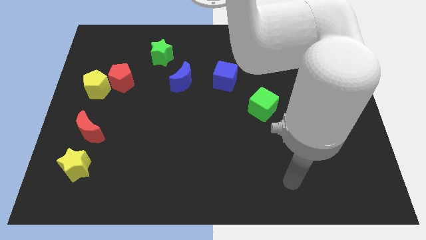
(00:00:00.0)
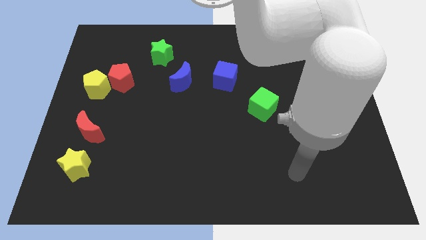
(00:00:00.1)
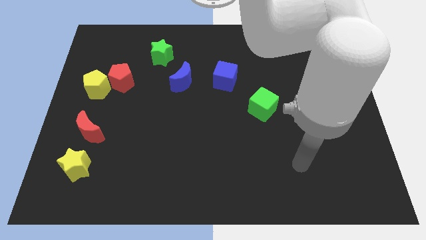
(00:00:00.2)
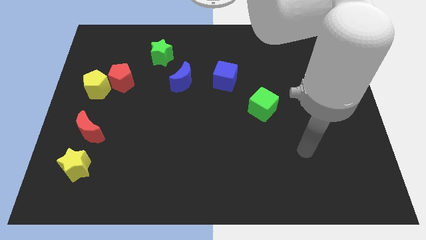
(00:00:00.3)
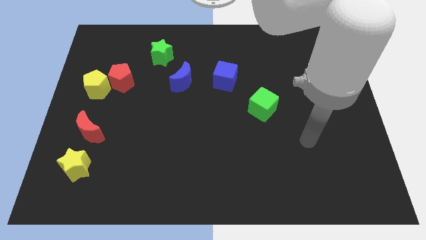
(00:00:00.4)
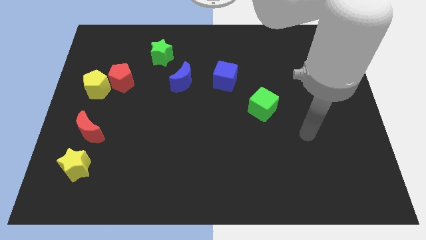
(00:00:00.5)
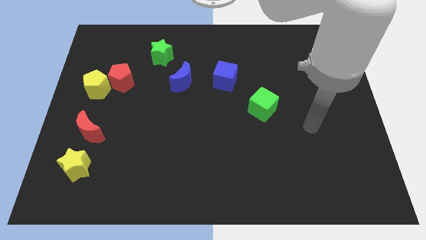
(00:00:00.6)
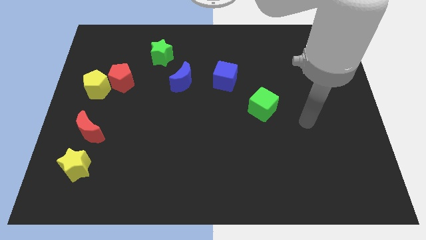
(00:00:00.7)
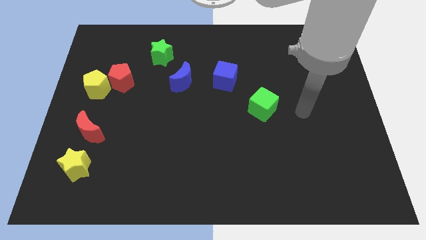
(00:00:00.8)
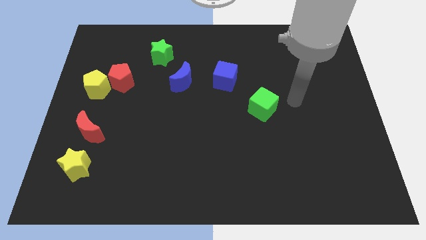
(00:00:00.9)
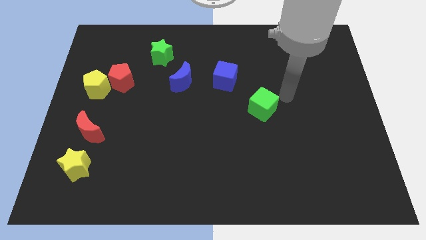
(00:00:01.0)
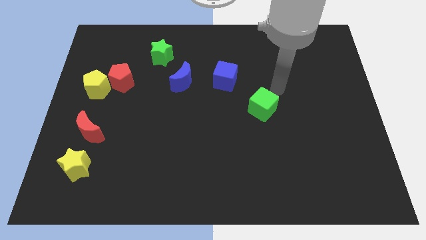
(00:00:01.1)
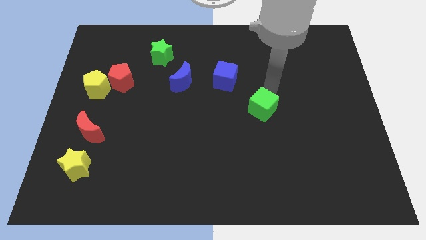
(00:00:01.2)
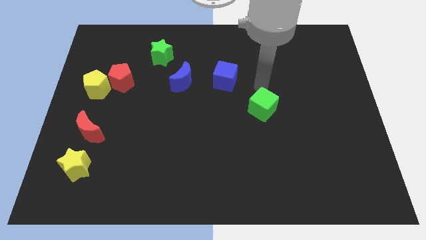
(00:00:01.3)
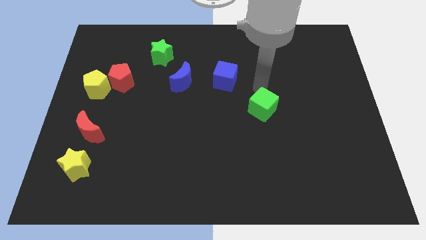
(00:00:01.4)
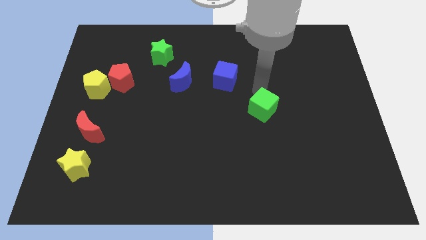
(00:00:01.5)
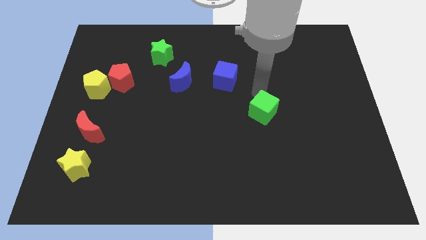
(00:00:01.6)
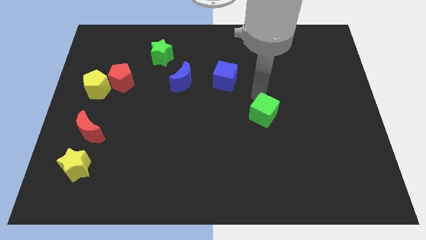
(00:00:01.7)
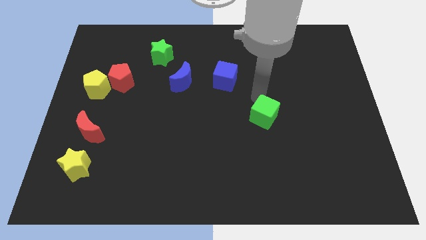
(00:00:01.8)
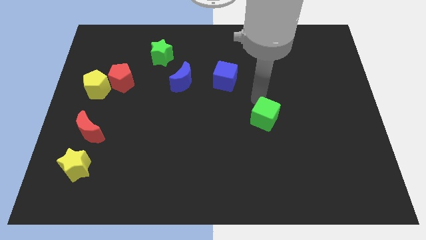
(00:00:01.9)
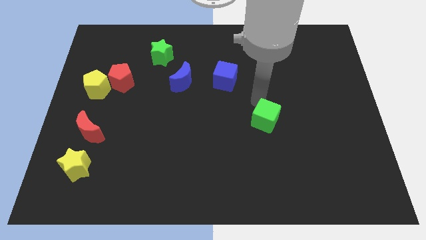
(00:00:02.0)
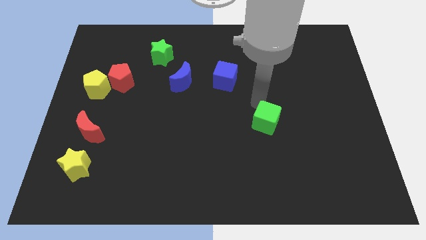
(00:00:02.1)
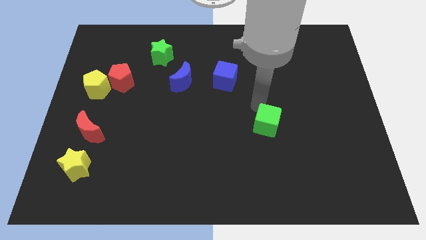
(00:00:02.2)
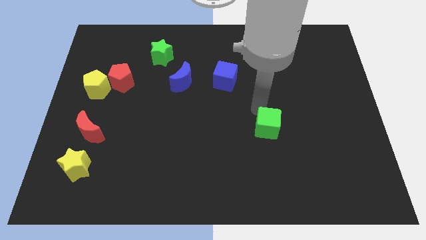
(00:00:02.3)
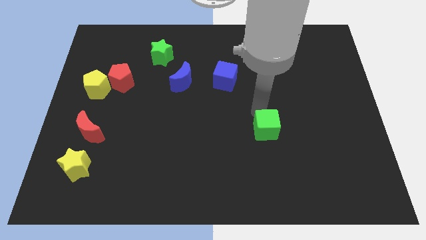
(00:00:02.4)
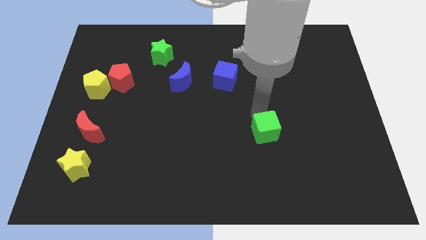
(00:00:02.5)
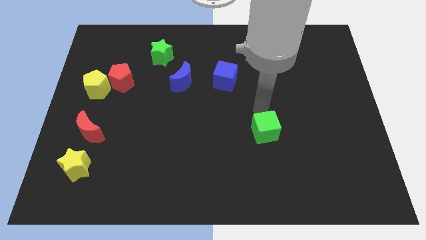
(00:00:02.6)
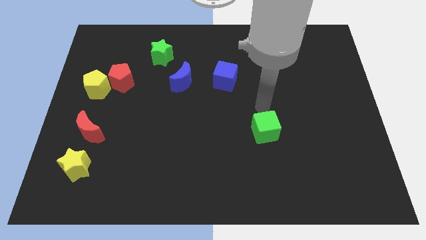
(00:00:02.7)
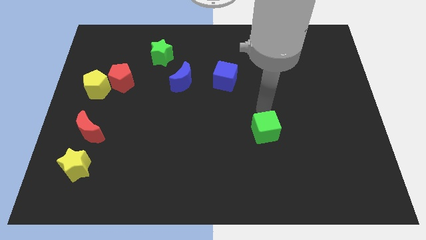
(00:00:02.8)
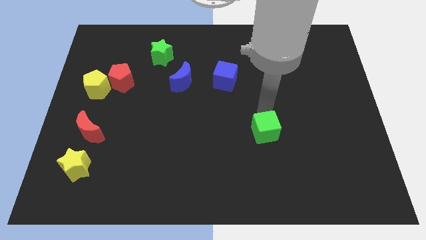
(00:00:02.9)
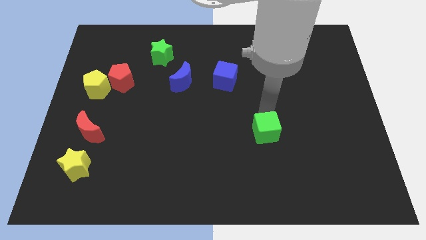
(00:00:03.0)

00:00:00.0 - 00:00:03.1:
slide the green cube a little downwards

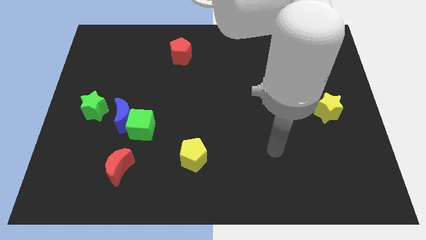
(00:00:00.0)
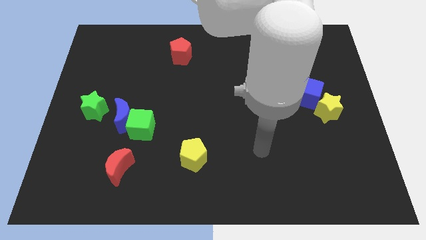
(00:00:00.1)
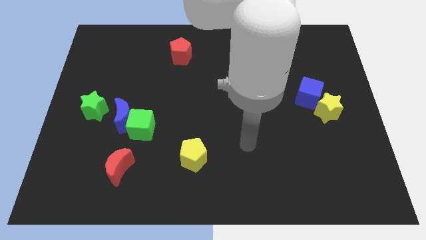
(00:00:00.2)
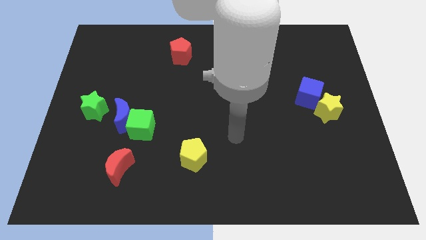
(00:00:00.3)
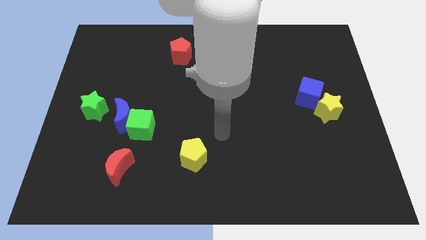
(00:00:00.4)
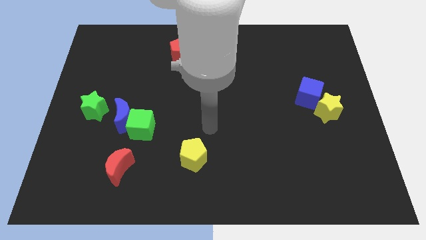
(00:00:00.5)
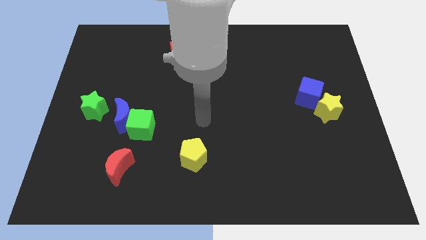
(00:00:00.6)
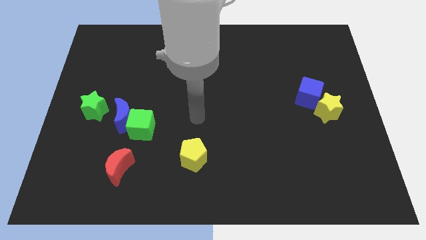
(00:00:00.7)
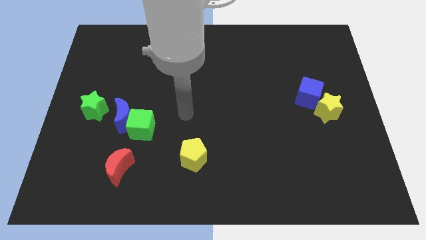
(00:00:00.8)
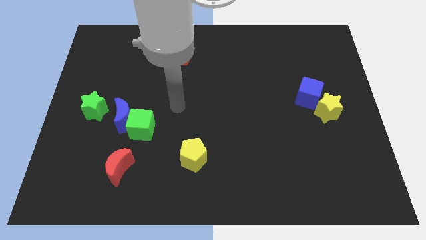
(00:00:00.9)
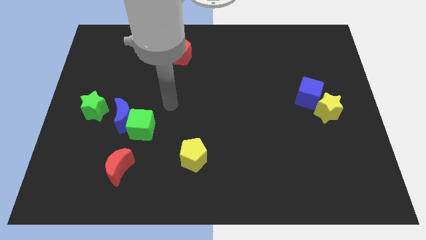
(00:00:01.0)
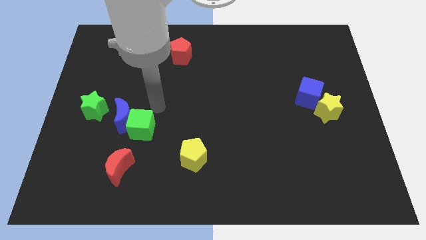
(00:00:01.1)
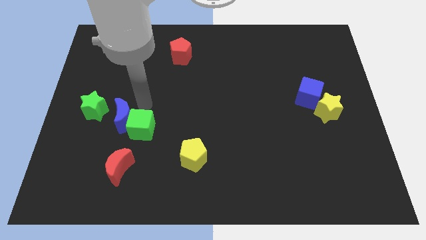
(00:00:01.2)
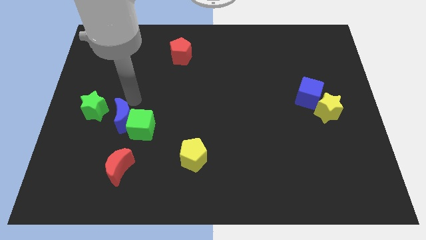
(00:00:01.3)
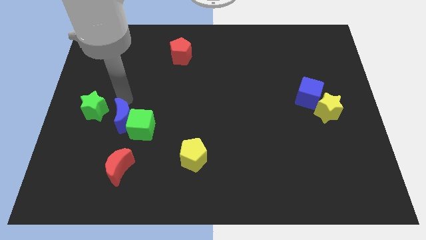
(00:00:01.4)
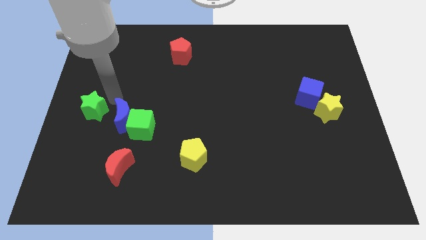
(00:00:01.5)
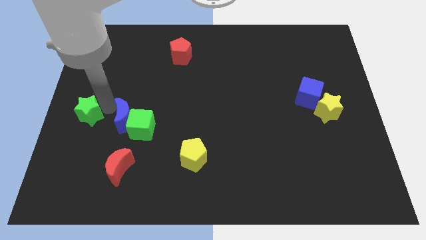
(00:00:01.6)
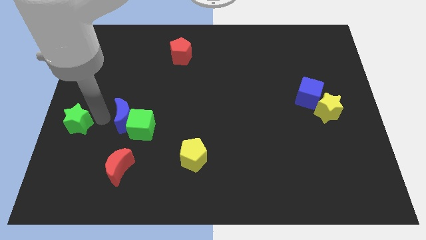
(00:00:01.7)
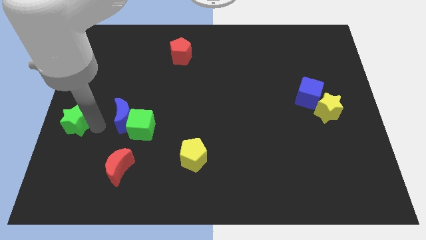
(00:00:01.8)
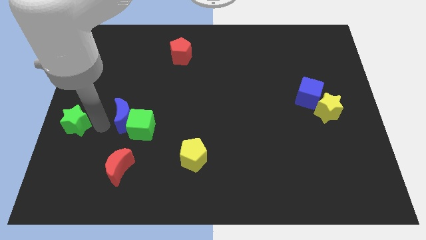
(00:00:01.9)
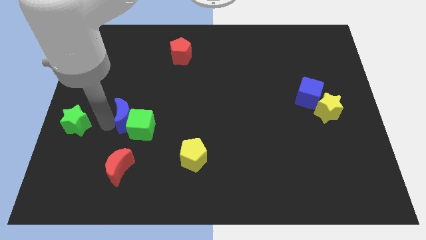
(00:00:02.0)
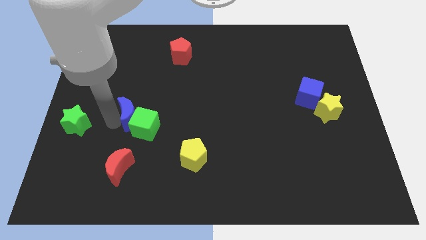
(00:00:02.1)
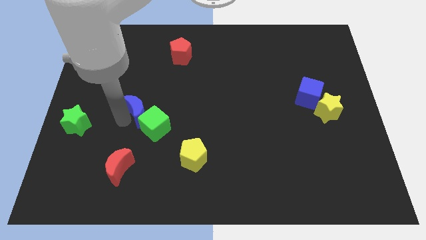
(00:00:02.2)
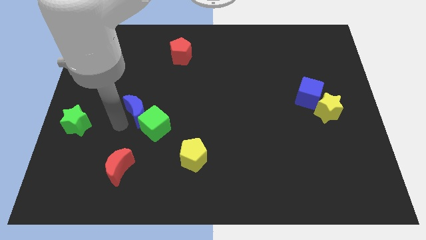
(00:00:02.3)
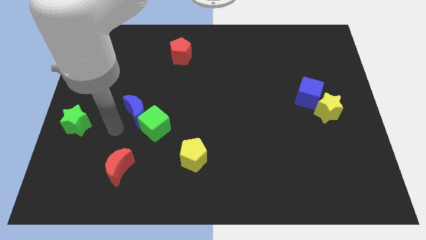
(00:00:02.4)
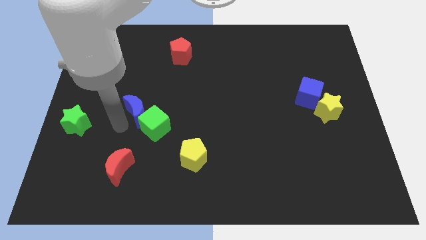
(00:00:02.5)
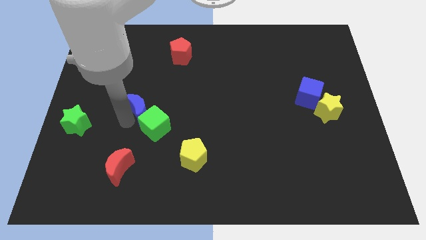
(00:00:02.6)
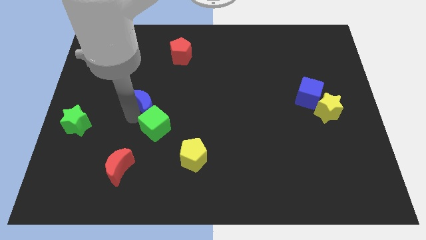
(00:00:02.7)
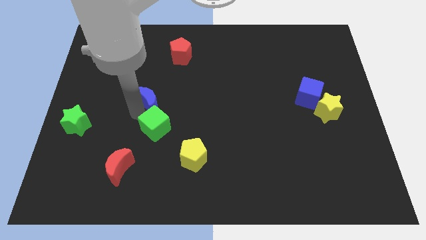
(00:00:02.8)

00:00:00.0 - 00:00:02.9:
push the blue moon somewhat up and to the right diagonally

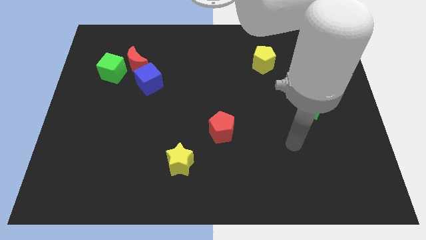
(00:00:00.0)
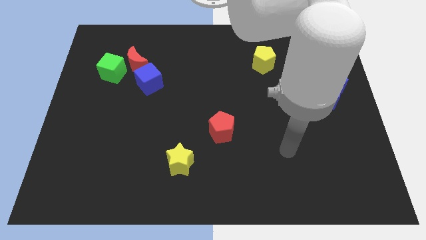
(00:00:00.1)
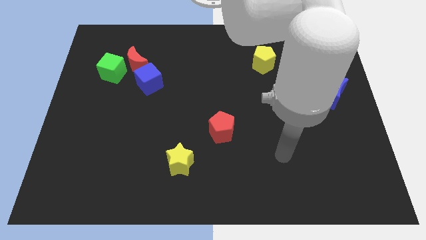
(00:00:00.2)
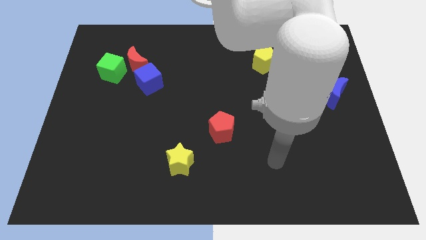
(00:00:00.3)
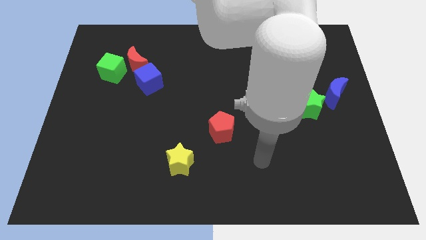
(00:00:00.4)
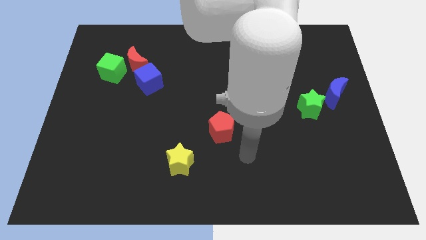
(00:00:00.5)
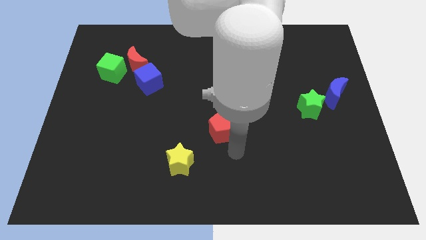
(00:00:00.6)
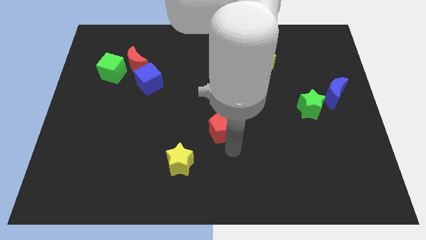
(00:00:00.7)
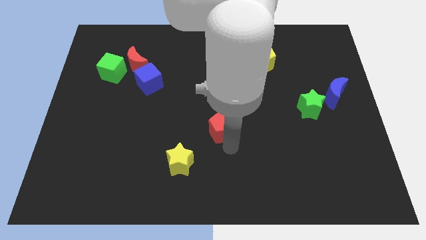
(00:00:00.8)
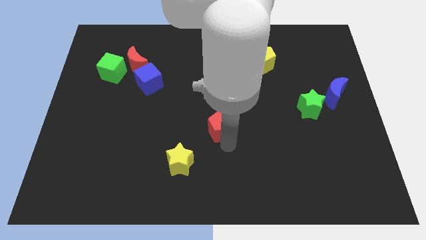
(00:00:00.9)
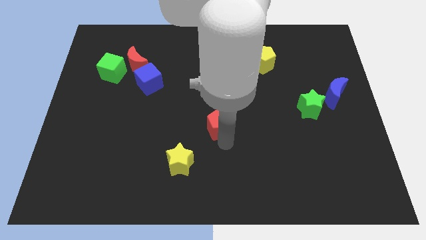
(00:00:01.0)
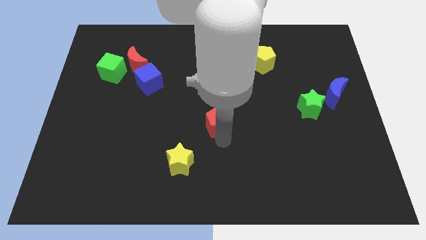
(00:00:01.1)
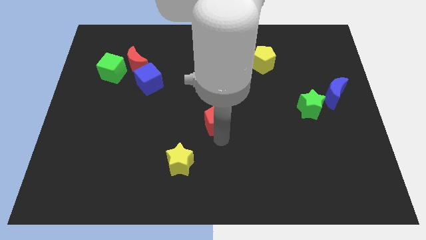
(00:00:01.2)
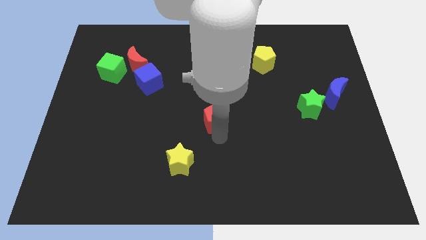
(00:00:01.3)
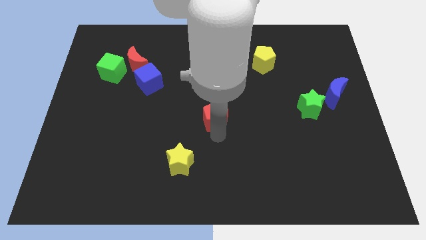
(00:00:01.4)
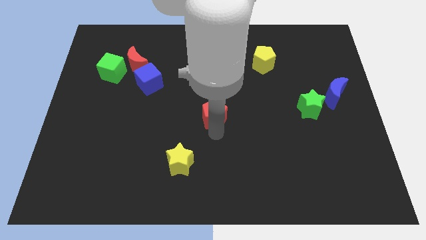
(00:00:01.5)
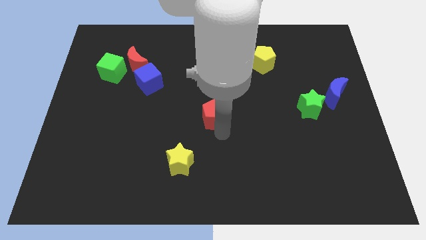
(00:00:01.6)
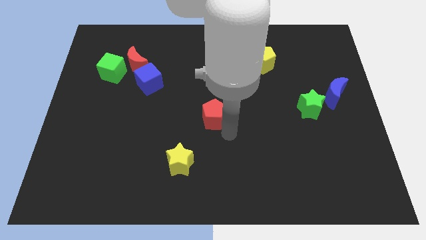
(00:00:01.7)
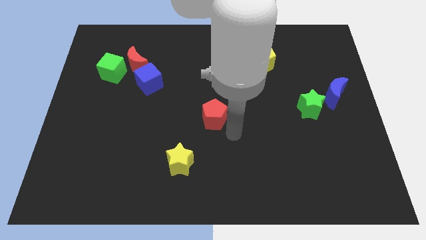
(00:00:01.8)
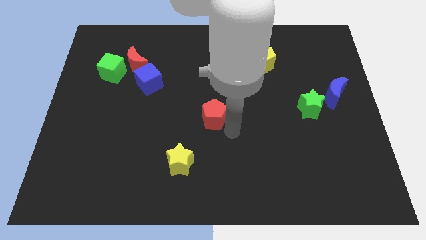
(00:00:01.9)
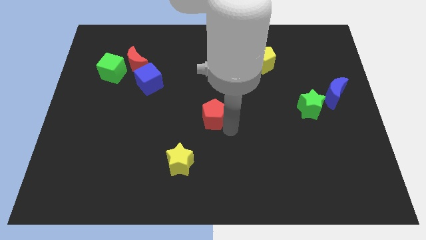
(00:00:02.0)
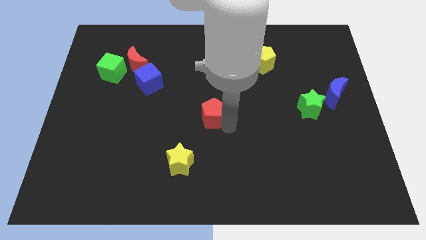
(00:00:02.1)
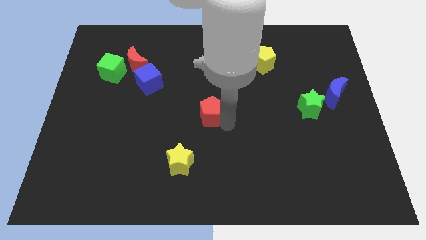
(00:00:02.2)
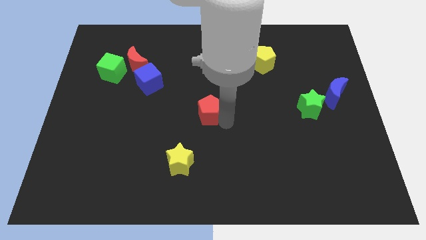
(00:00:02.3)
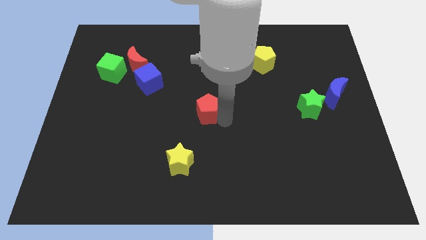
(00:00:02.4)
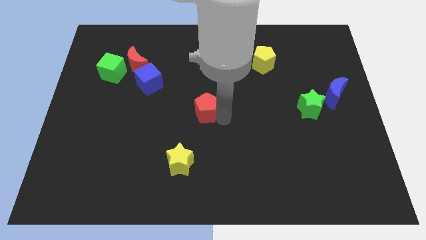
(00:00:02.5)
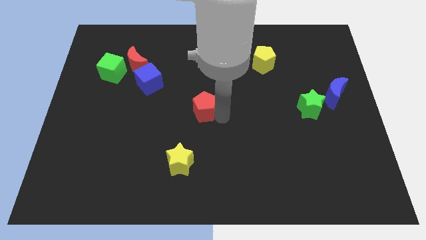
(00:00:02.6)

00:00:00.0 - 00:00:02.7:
push the red pentagon up and then to the left a little
